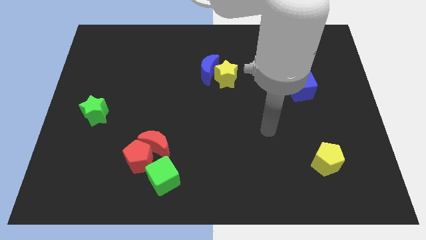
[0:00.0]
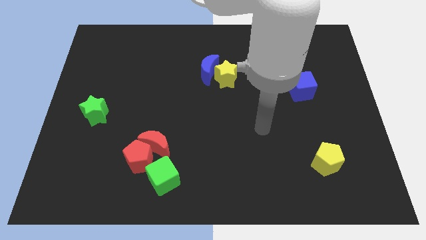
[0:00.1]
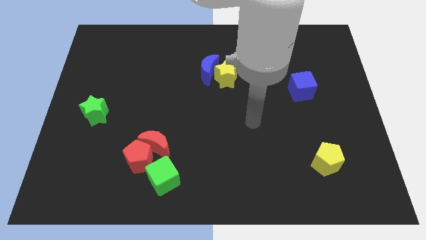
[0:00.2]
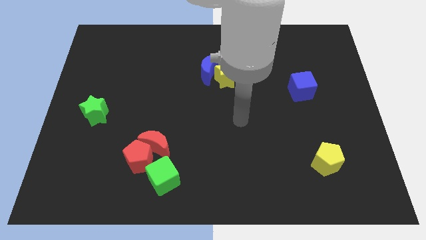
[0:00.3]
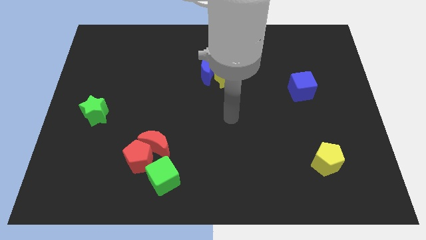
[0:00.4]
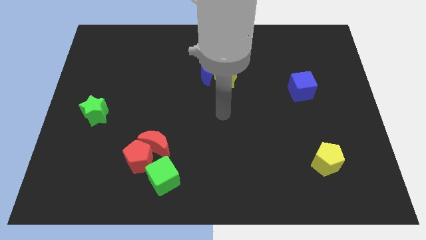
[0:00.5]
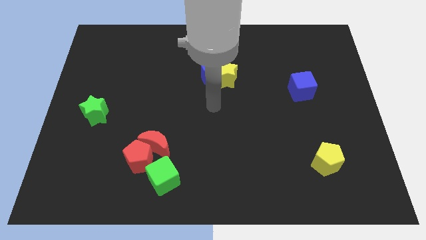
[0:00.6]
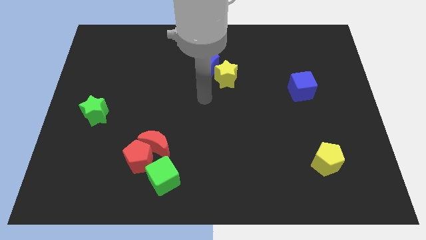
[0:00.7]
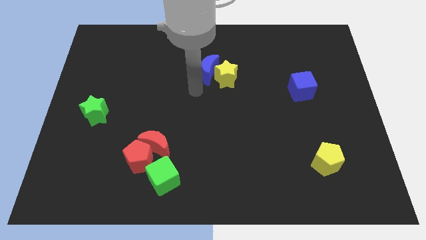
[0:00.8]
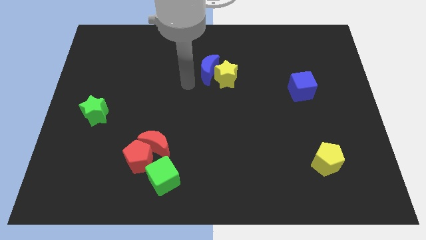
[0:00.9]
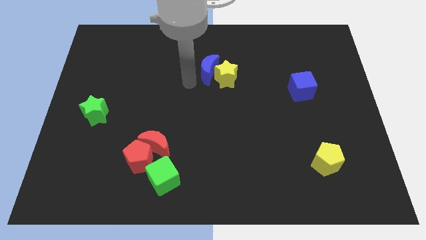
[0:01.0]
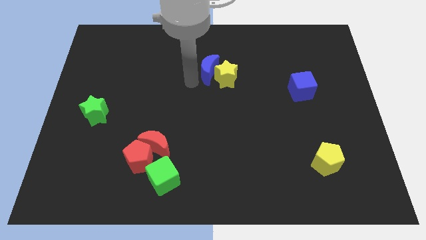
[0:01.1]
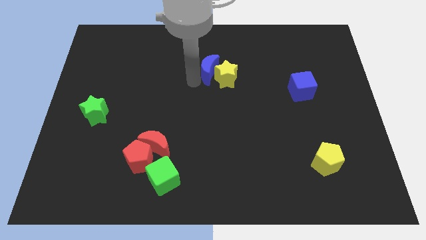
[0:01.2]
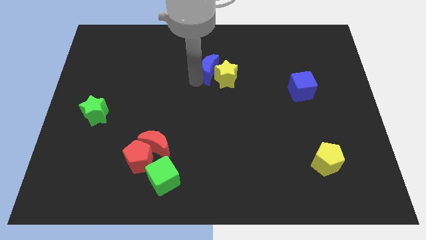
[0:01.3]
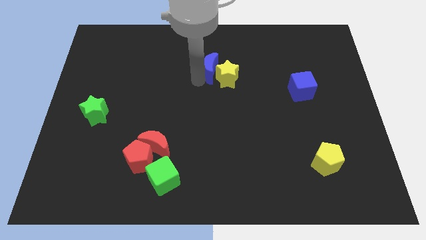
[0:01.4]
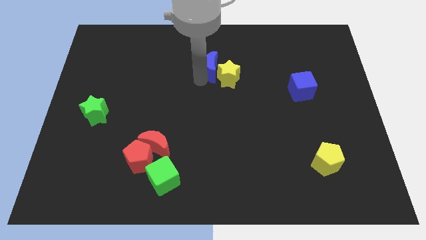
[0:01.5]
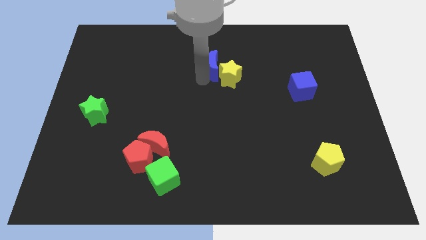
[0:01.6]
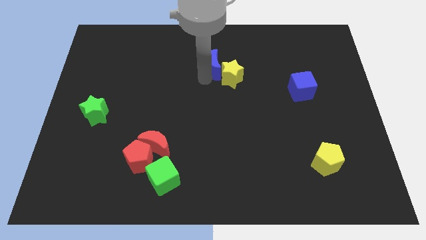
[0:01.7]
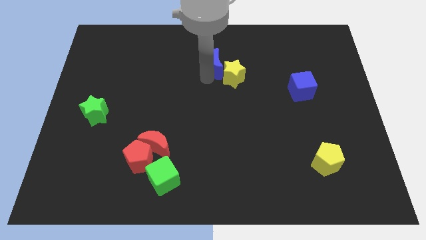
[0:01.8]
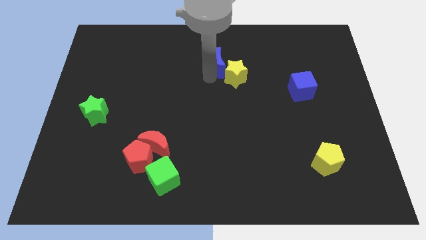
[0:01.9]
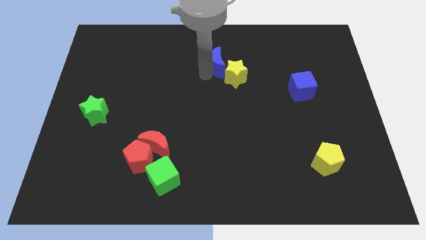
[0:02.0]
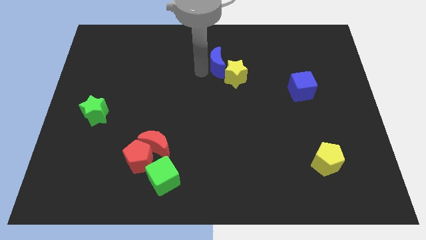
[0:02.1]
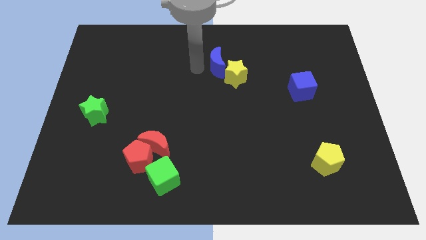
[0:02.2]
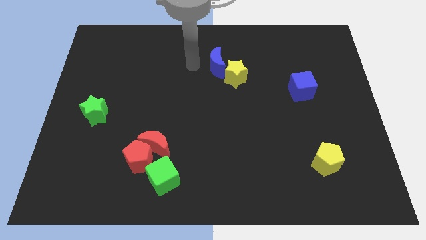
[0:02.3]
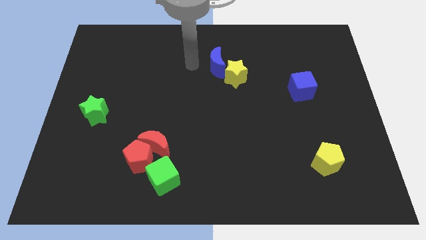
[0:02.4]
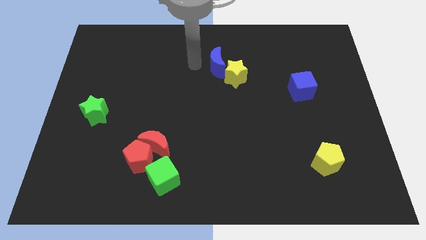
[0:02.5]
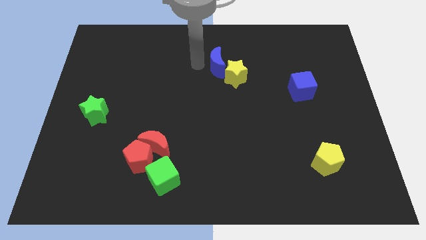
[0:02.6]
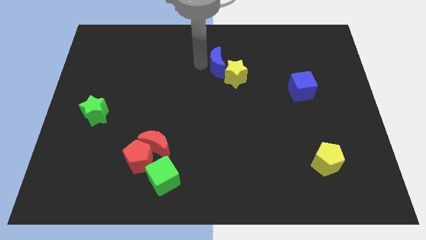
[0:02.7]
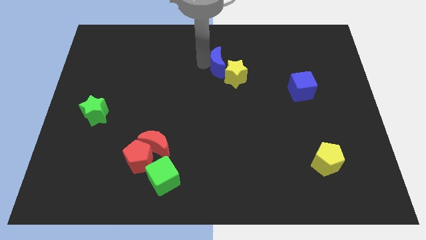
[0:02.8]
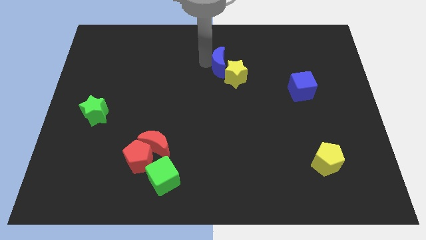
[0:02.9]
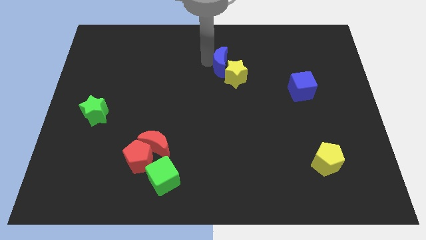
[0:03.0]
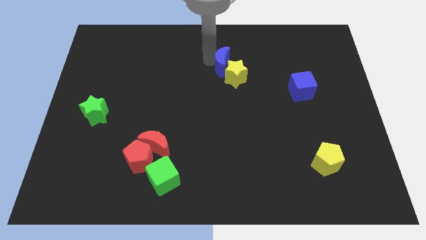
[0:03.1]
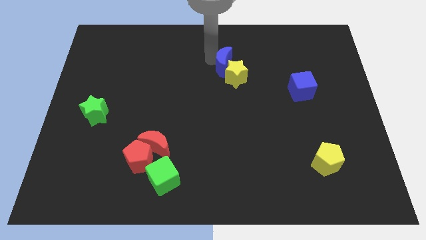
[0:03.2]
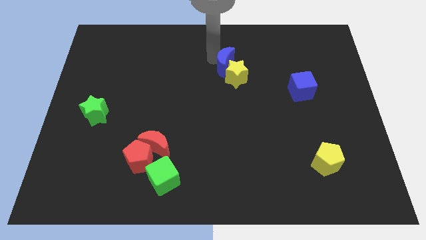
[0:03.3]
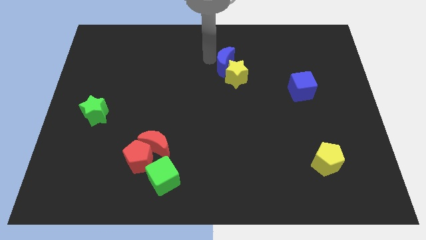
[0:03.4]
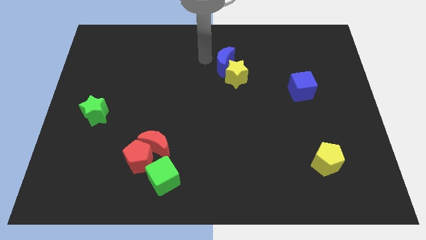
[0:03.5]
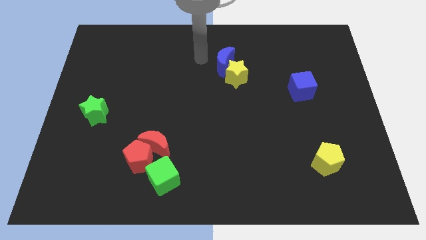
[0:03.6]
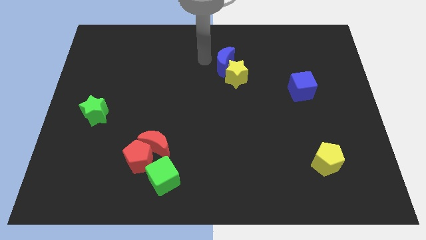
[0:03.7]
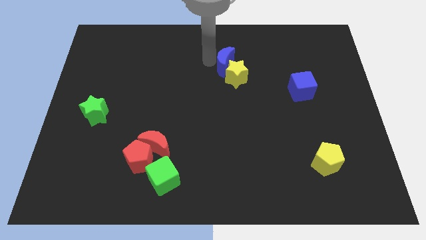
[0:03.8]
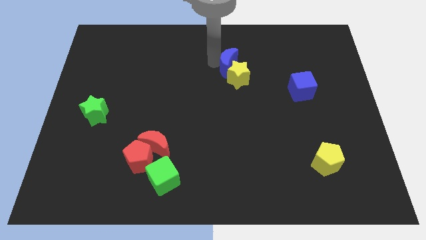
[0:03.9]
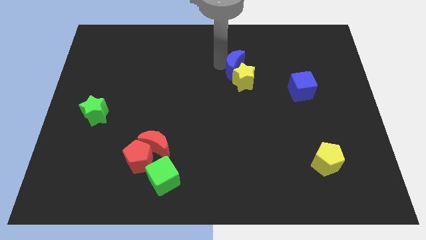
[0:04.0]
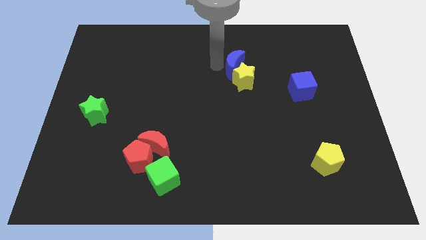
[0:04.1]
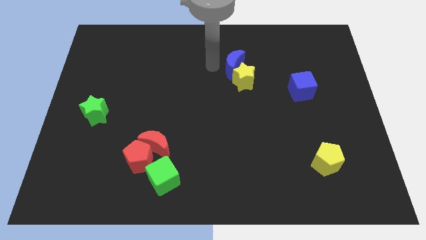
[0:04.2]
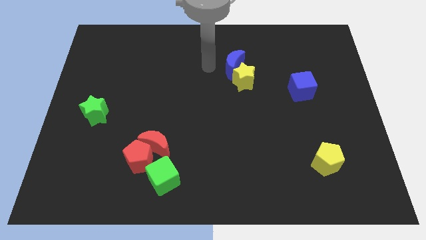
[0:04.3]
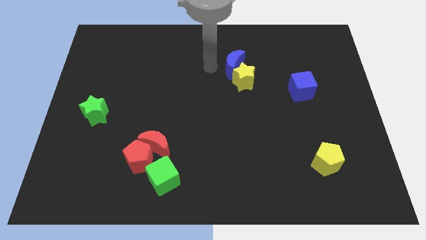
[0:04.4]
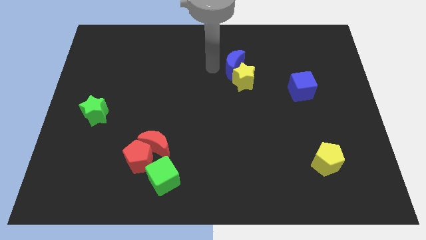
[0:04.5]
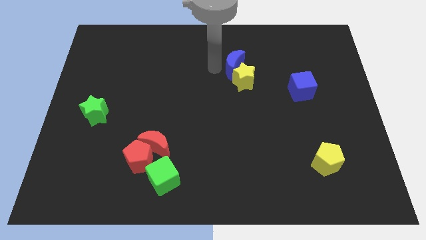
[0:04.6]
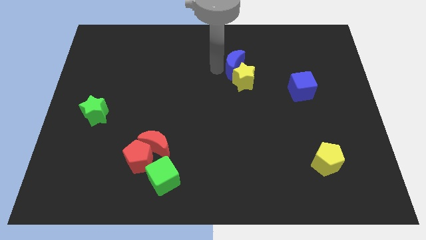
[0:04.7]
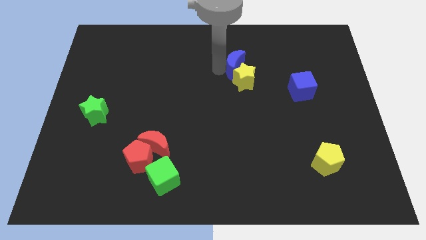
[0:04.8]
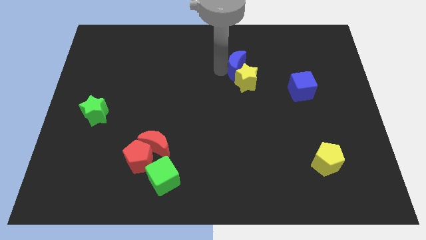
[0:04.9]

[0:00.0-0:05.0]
slightly move the blue moon right

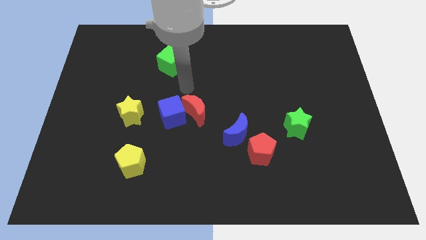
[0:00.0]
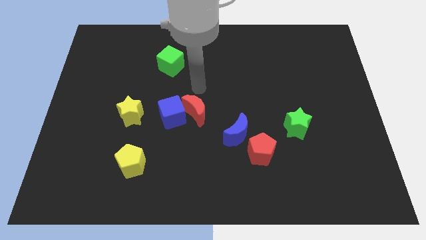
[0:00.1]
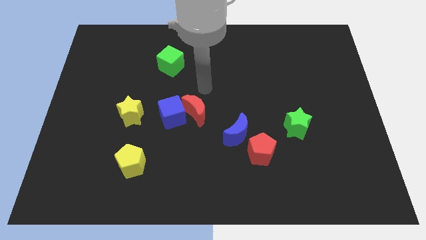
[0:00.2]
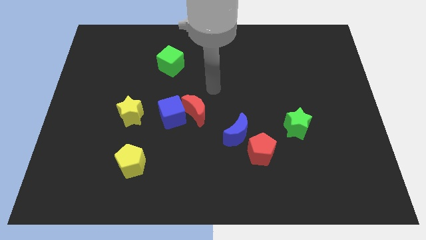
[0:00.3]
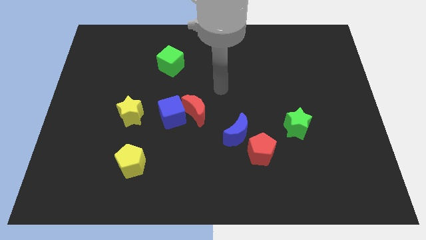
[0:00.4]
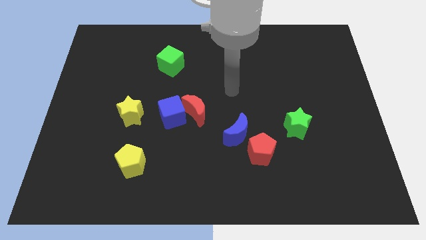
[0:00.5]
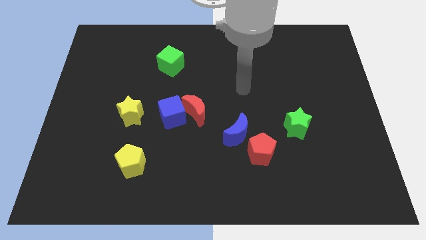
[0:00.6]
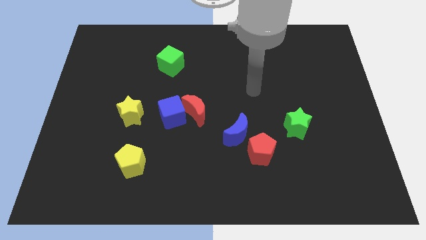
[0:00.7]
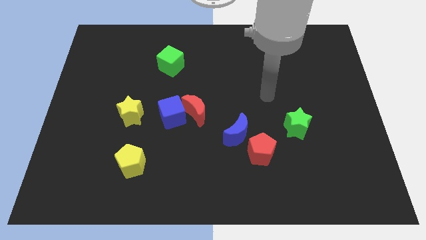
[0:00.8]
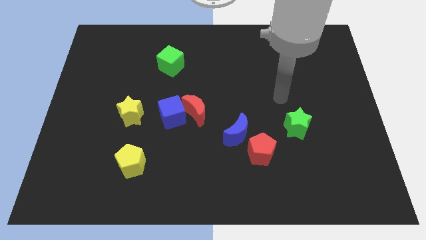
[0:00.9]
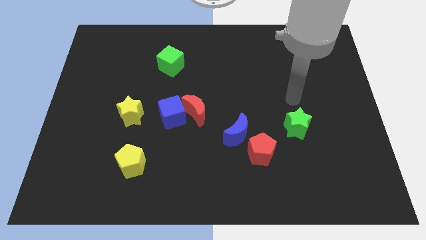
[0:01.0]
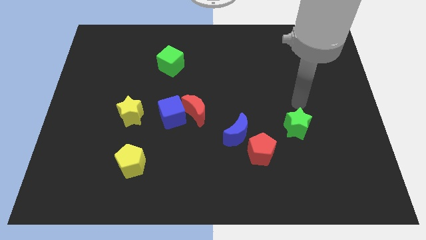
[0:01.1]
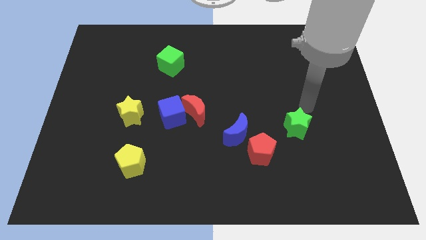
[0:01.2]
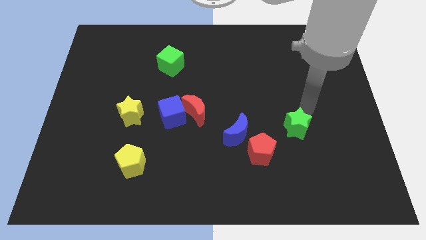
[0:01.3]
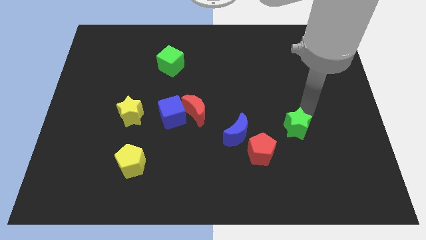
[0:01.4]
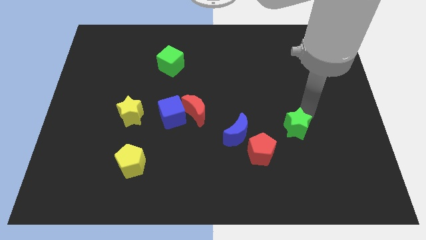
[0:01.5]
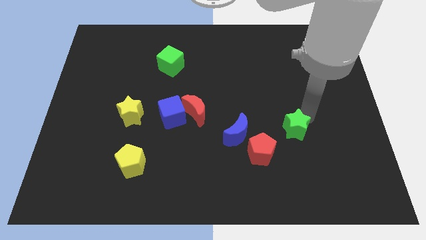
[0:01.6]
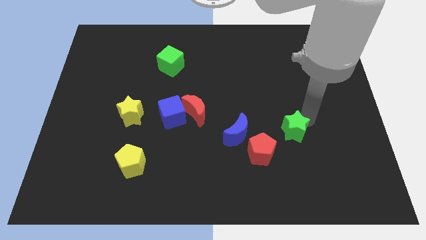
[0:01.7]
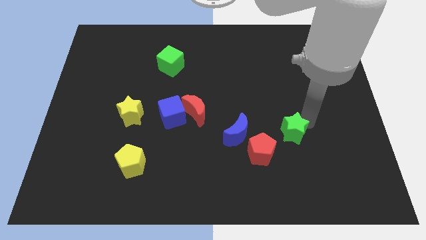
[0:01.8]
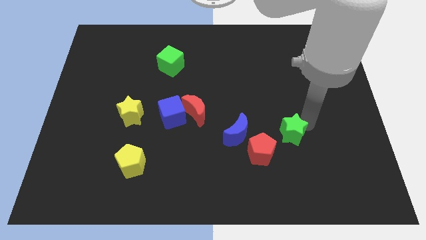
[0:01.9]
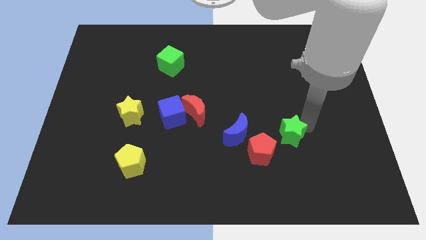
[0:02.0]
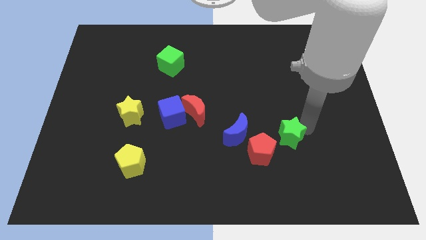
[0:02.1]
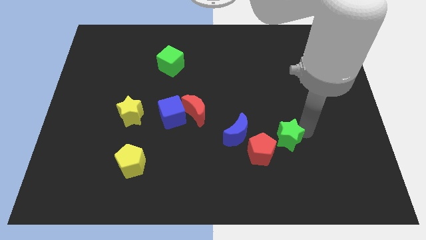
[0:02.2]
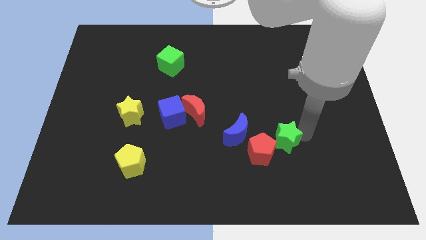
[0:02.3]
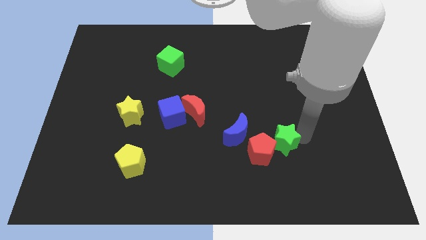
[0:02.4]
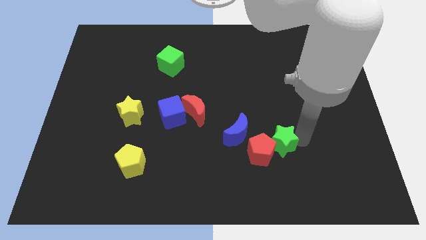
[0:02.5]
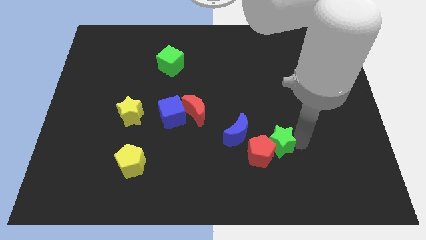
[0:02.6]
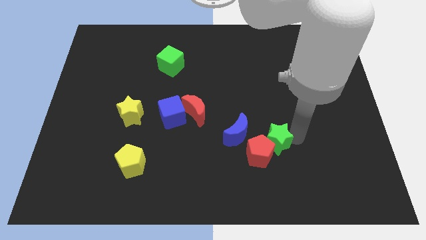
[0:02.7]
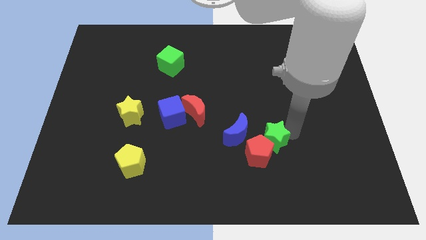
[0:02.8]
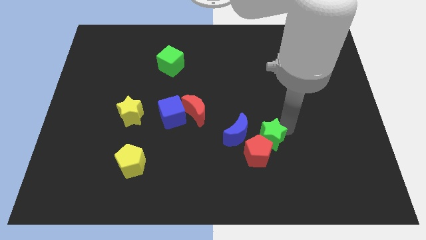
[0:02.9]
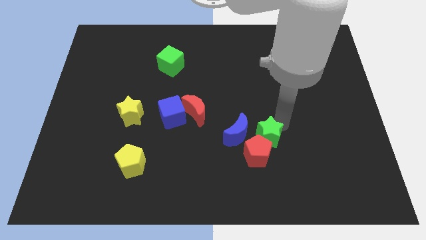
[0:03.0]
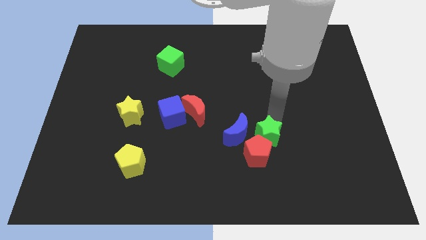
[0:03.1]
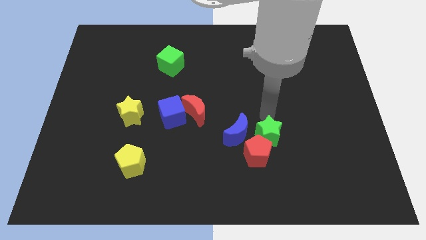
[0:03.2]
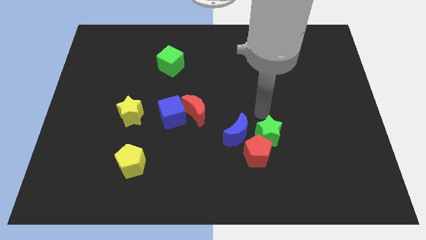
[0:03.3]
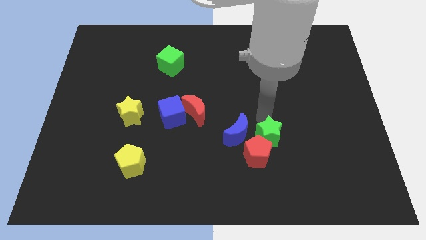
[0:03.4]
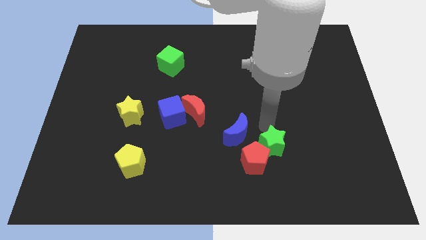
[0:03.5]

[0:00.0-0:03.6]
move the green star slightly down and left
